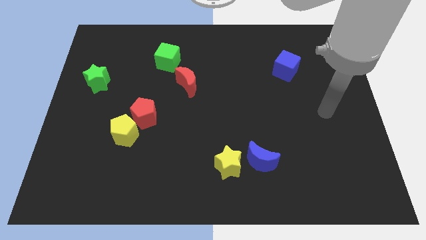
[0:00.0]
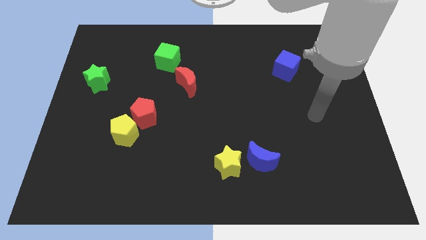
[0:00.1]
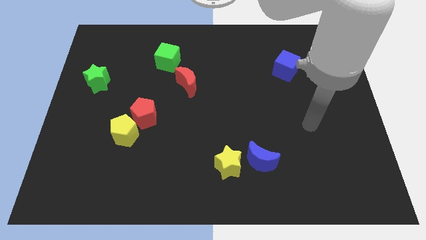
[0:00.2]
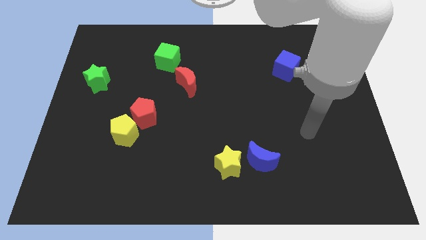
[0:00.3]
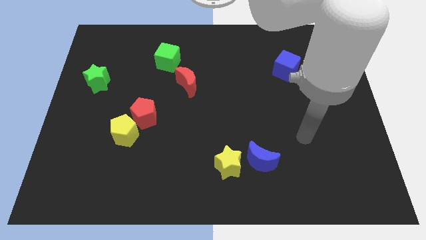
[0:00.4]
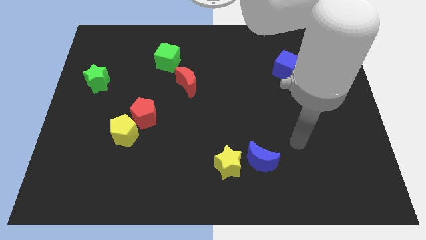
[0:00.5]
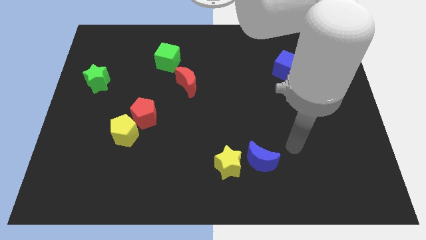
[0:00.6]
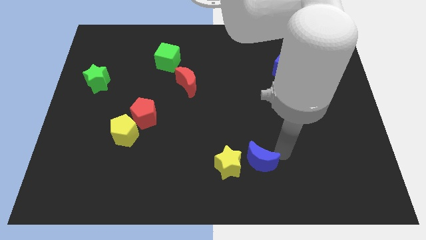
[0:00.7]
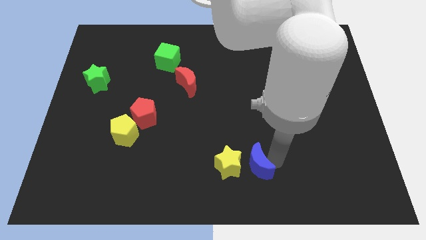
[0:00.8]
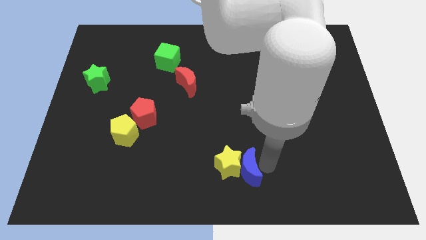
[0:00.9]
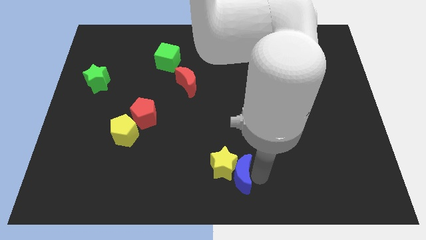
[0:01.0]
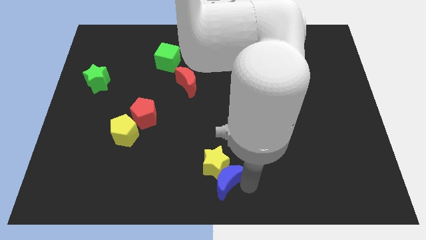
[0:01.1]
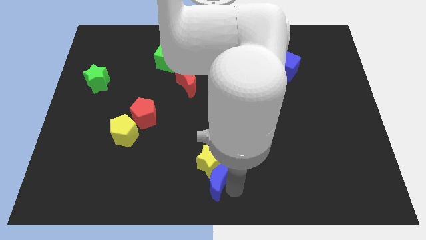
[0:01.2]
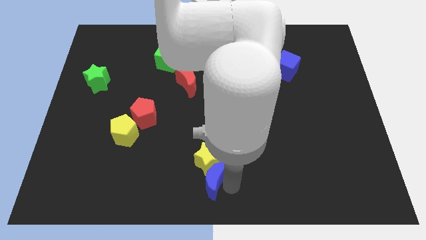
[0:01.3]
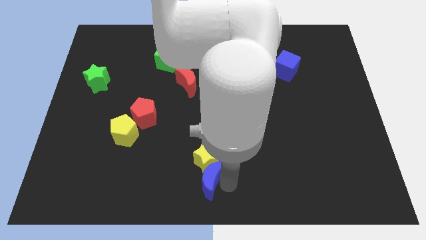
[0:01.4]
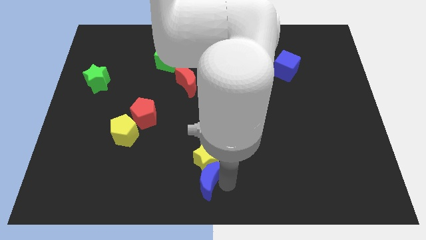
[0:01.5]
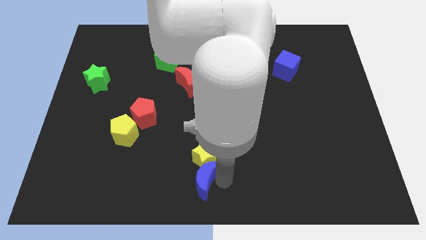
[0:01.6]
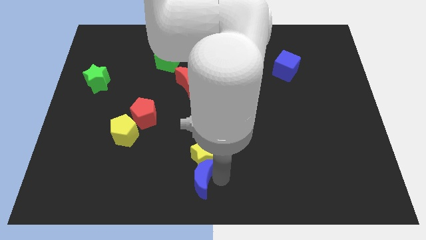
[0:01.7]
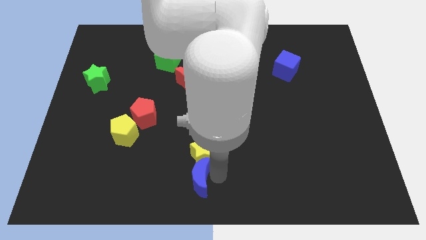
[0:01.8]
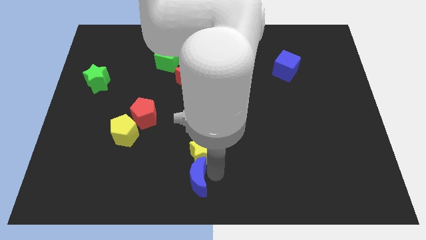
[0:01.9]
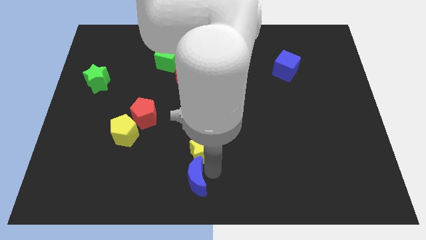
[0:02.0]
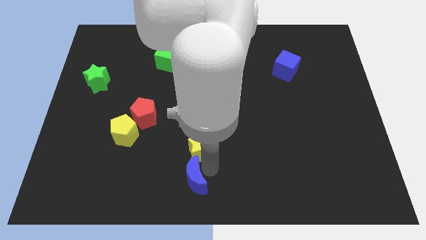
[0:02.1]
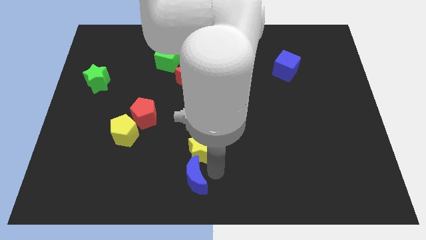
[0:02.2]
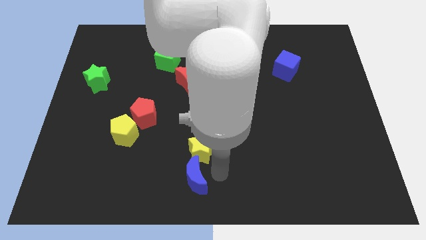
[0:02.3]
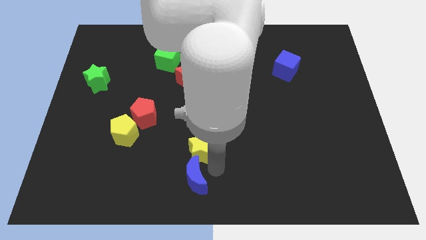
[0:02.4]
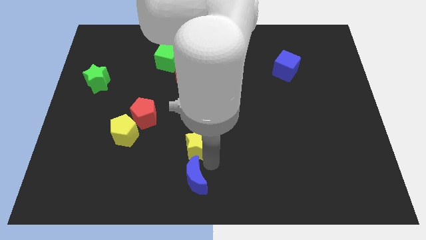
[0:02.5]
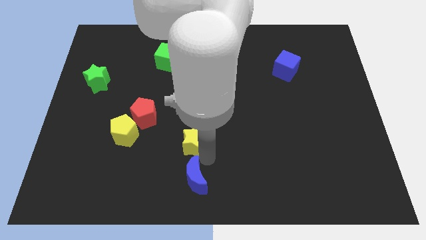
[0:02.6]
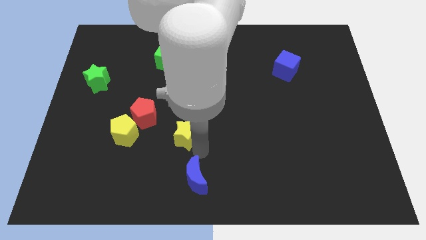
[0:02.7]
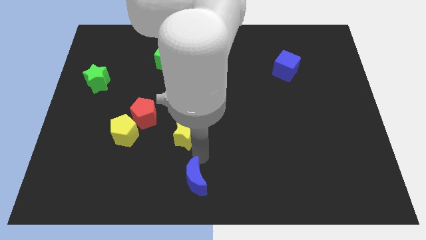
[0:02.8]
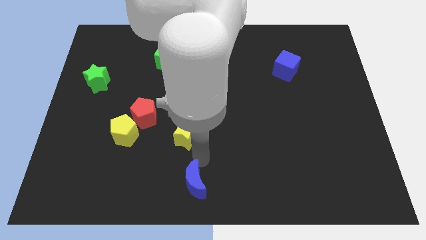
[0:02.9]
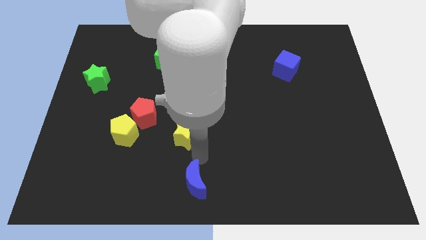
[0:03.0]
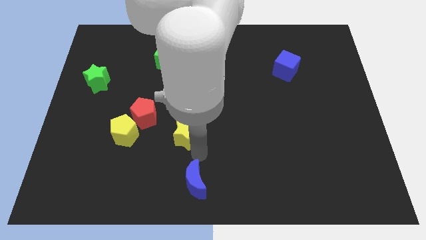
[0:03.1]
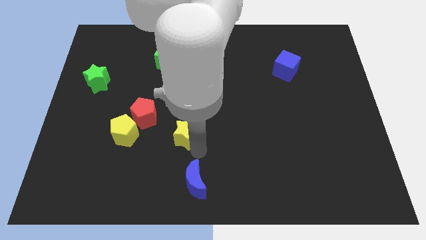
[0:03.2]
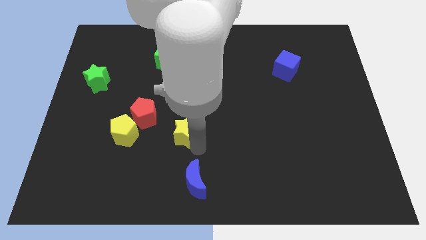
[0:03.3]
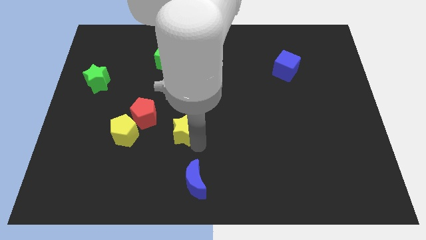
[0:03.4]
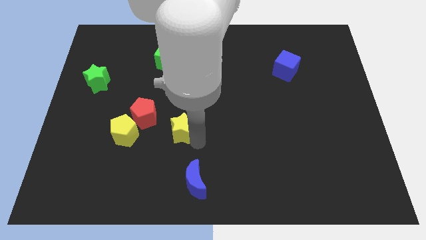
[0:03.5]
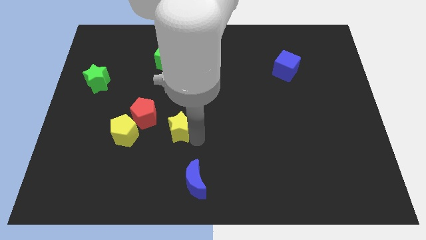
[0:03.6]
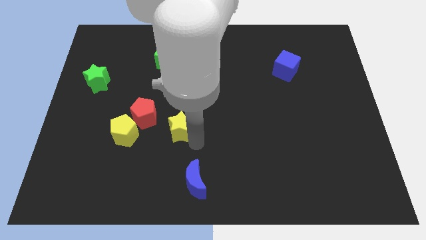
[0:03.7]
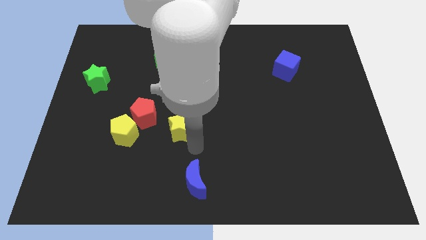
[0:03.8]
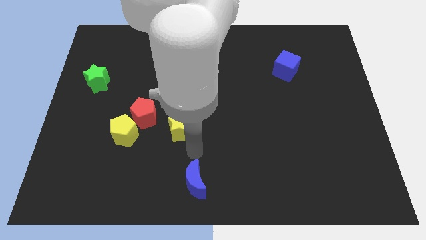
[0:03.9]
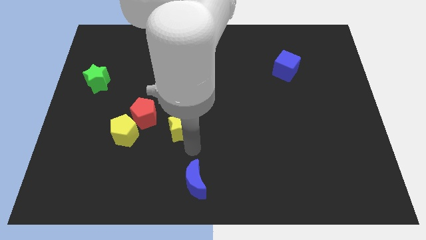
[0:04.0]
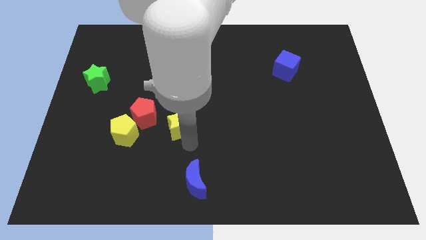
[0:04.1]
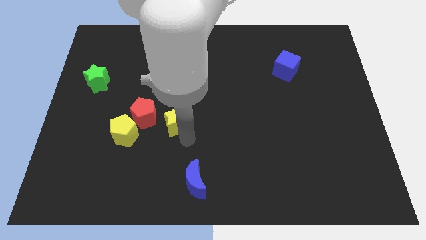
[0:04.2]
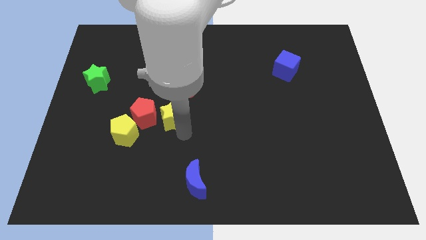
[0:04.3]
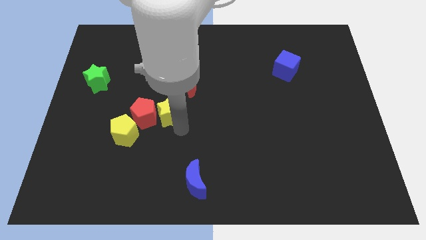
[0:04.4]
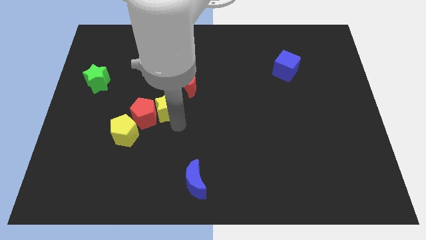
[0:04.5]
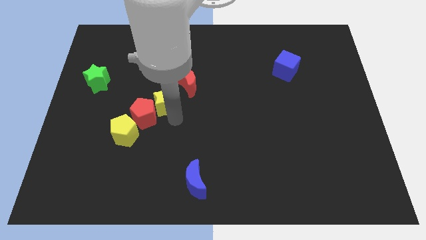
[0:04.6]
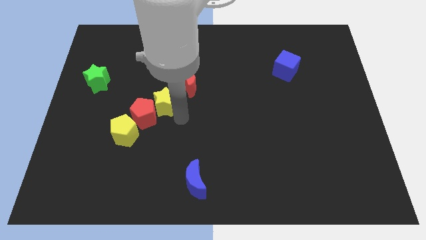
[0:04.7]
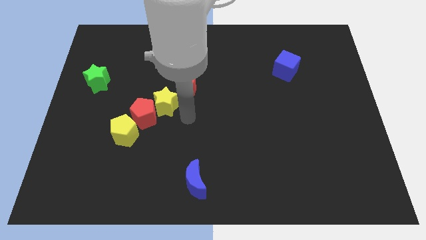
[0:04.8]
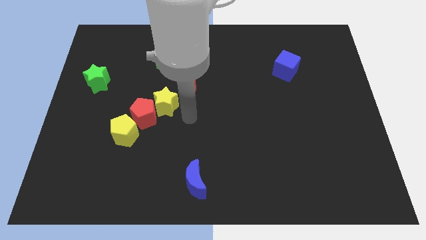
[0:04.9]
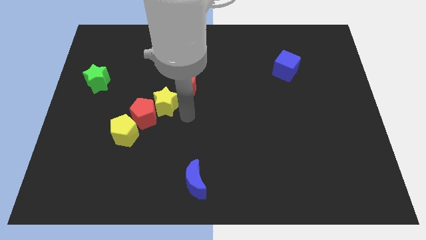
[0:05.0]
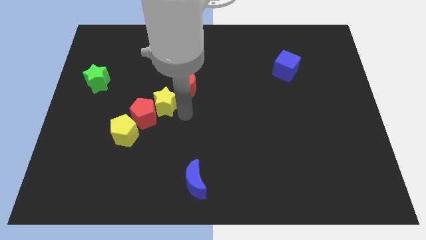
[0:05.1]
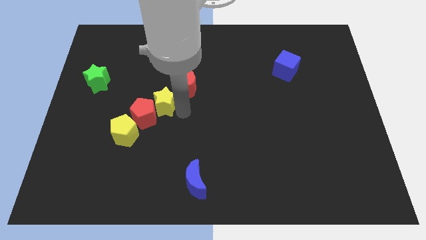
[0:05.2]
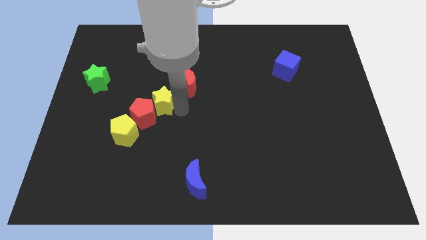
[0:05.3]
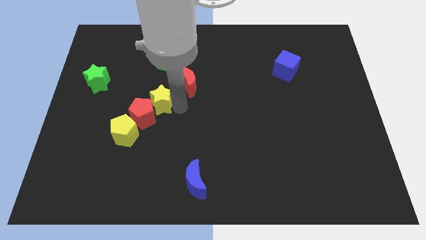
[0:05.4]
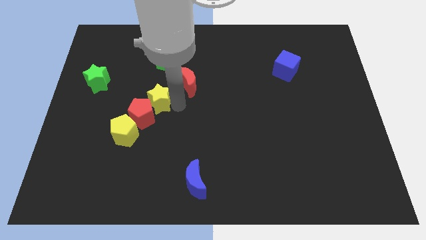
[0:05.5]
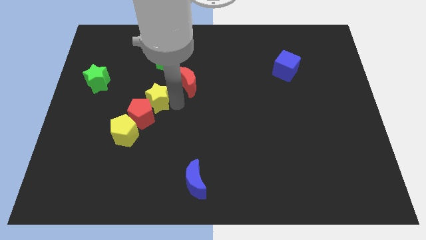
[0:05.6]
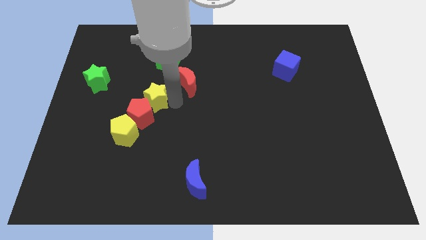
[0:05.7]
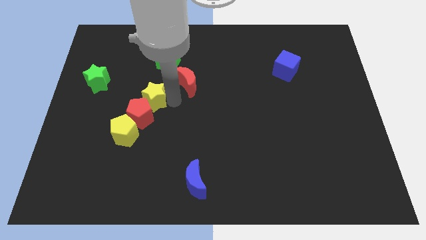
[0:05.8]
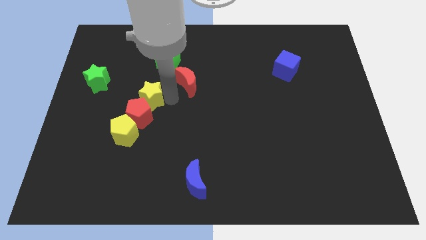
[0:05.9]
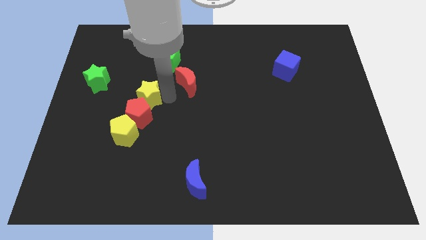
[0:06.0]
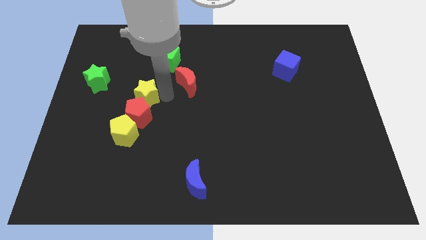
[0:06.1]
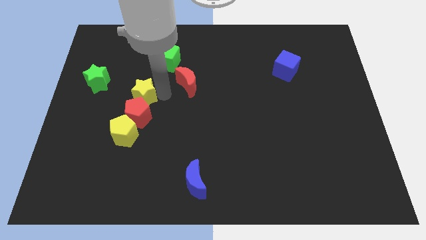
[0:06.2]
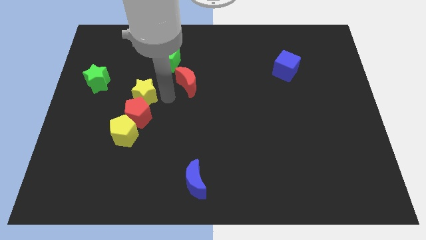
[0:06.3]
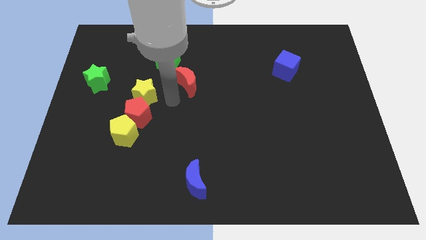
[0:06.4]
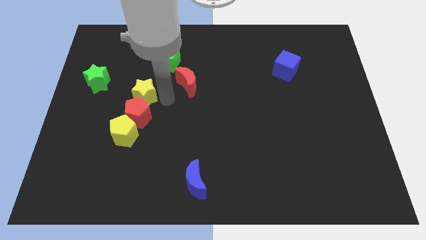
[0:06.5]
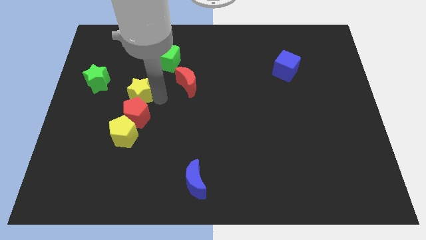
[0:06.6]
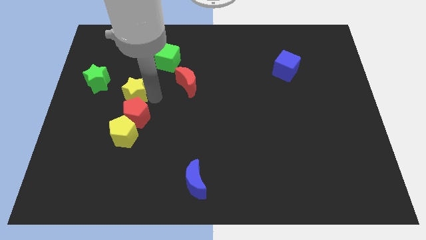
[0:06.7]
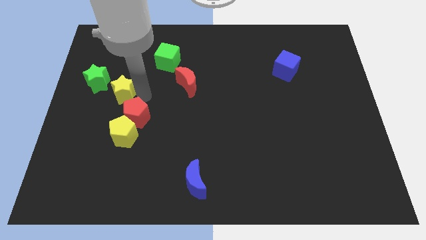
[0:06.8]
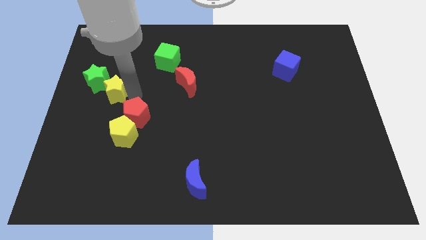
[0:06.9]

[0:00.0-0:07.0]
put the yellow star to the green star
